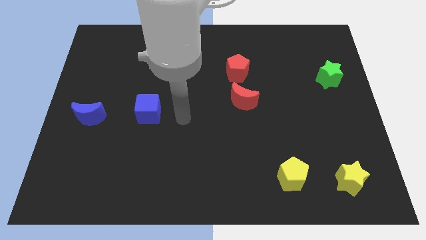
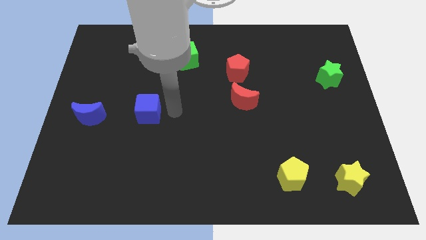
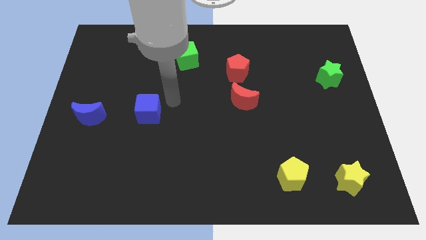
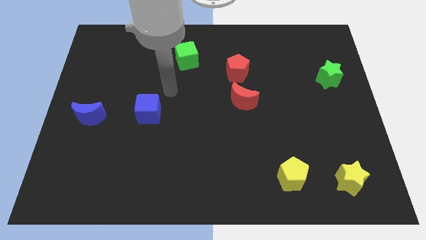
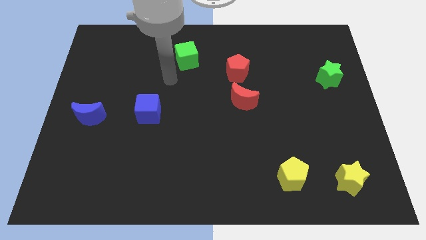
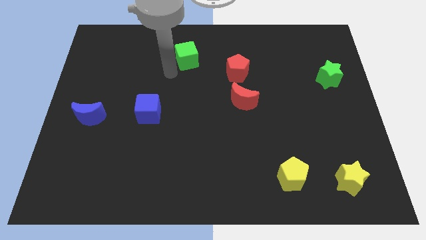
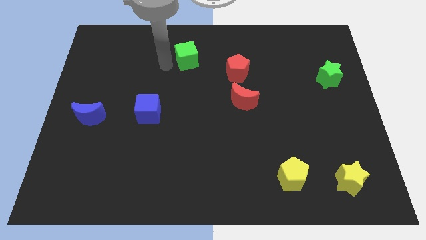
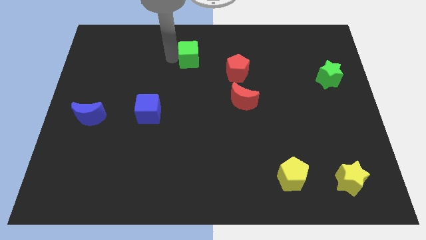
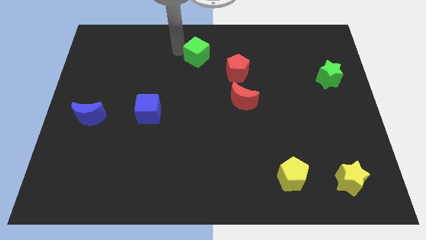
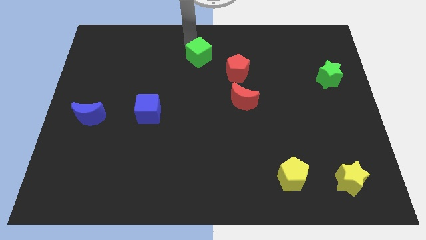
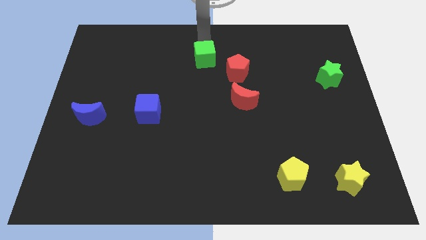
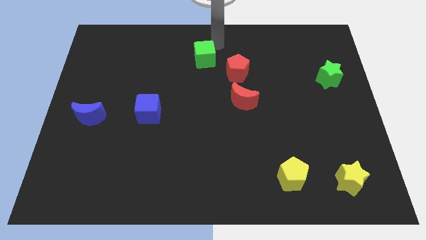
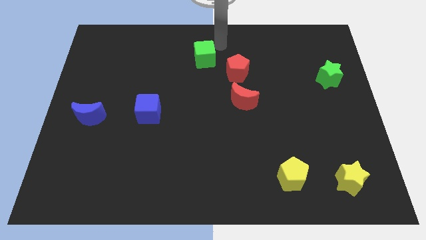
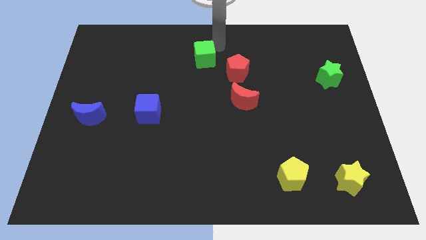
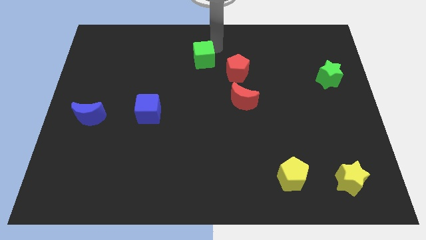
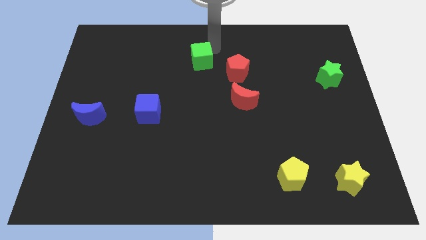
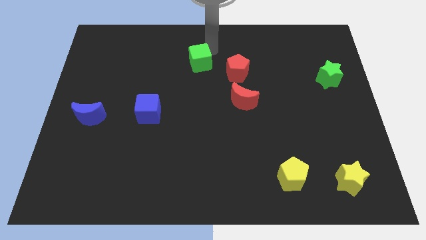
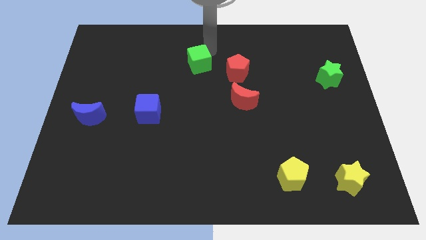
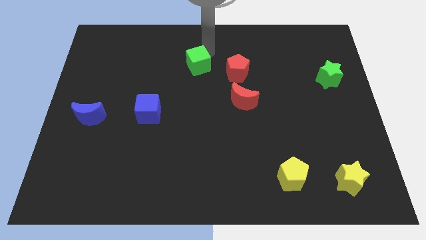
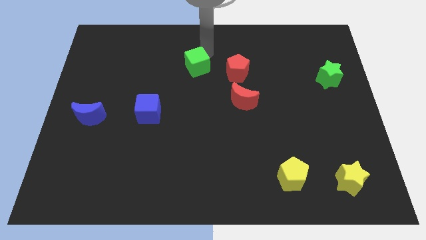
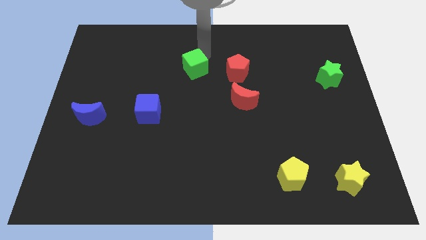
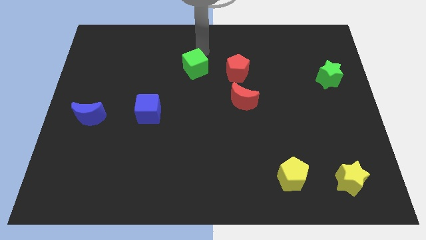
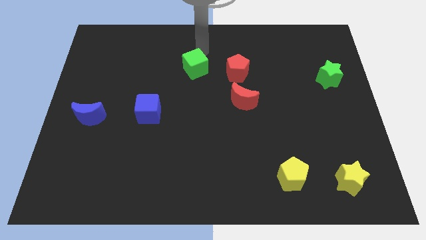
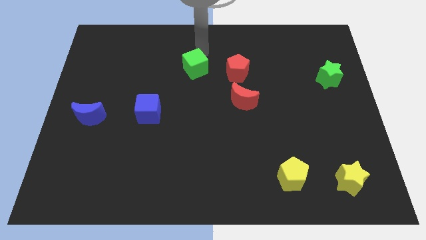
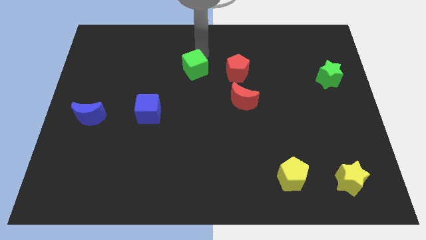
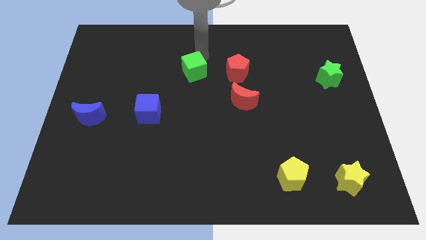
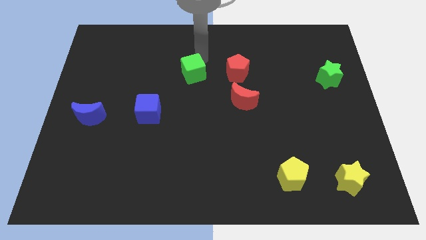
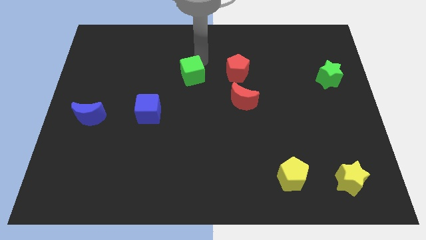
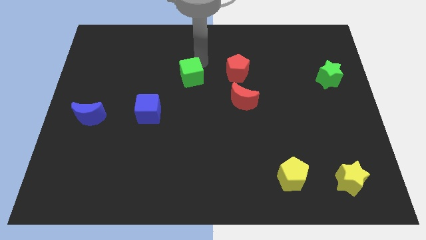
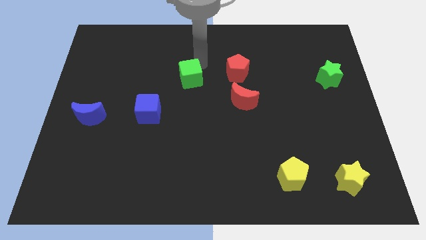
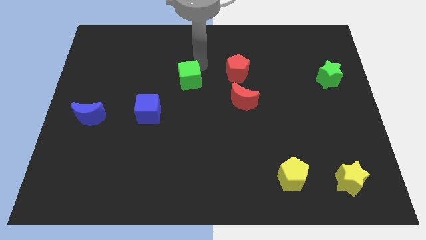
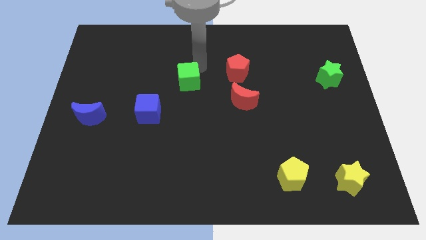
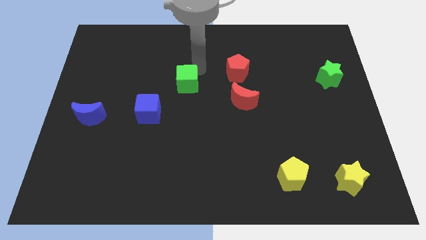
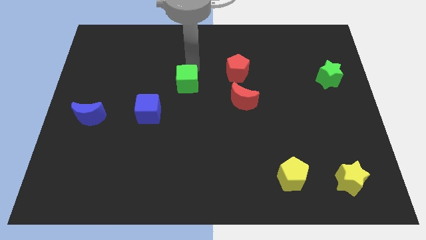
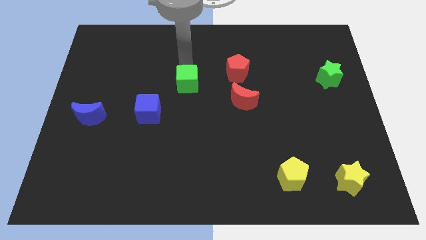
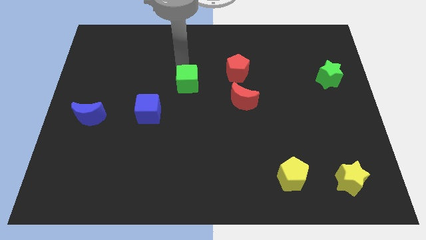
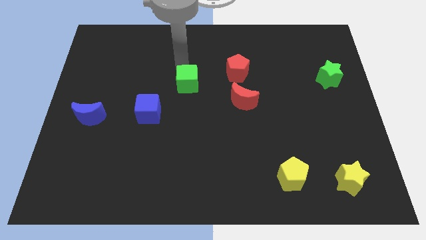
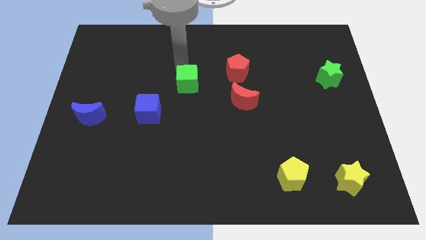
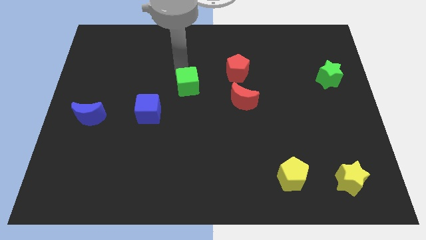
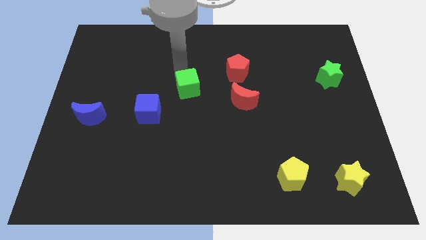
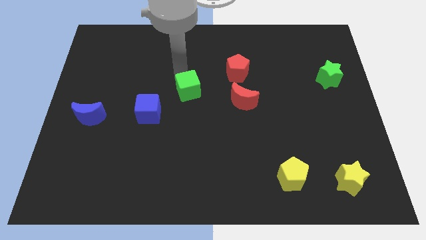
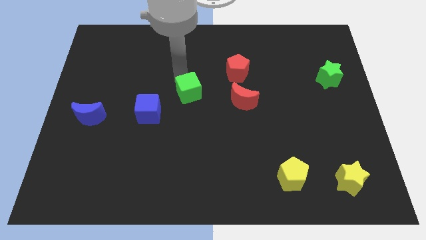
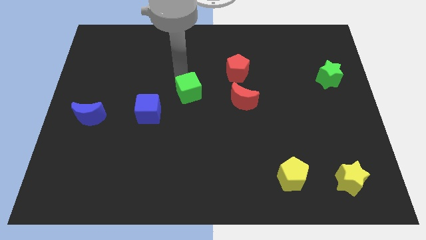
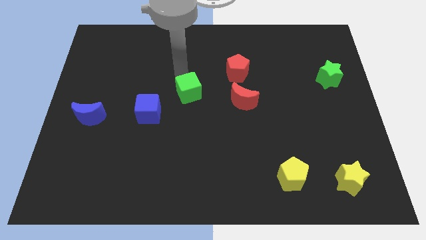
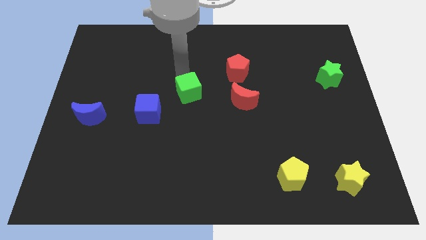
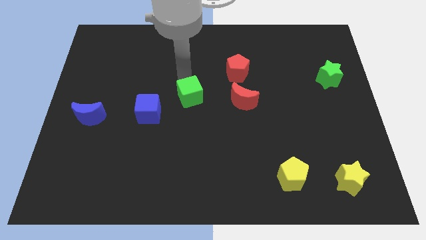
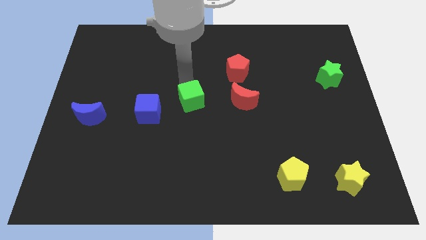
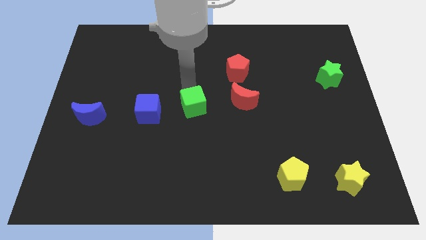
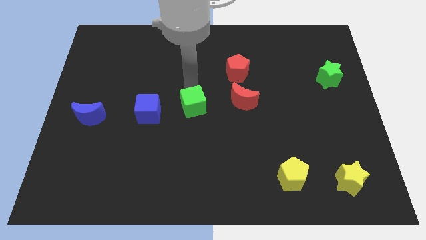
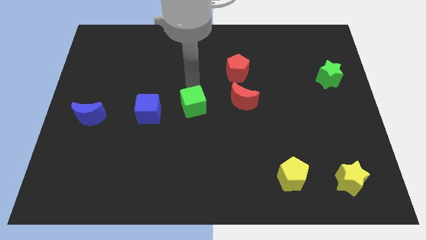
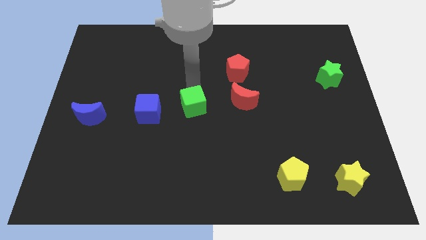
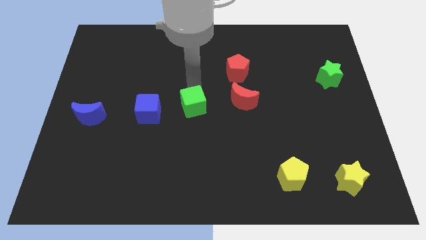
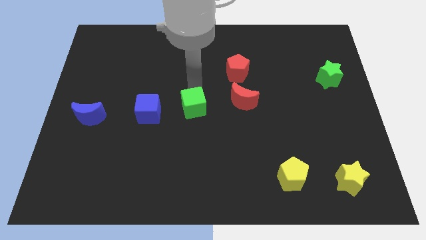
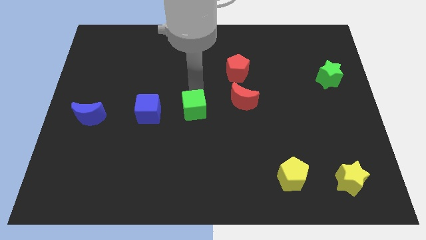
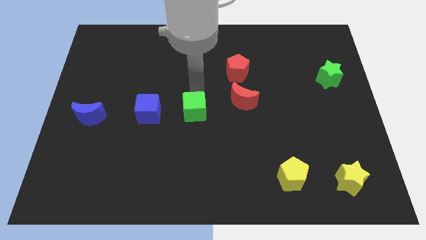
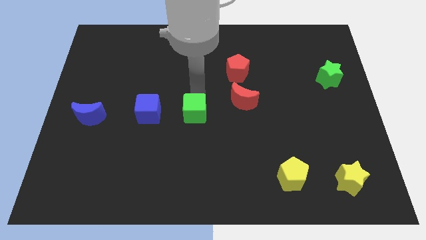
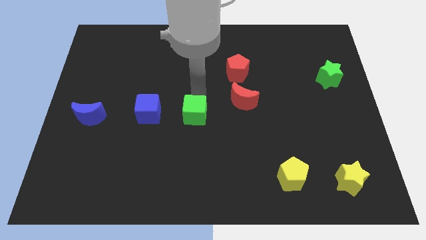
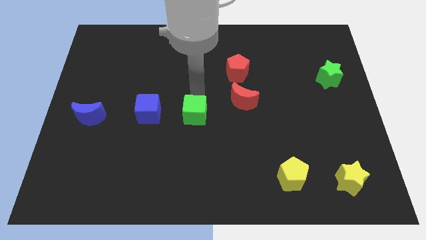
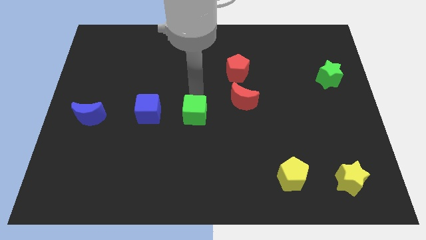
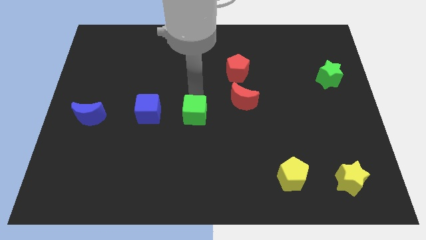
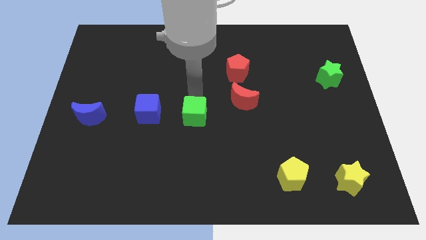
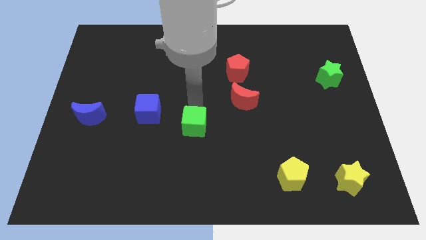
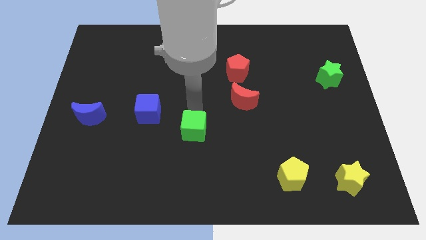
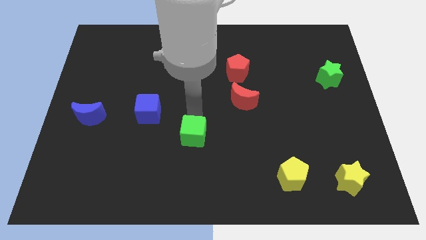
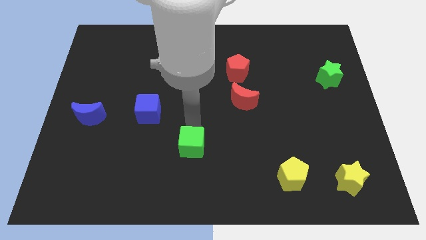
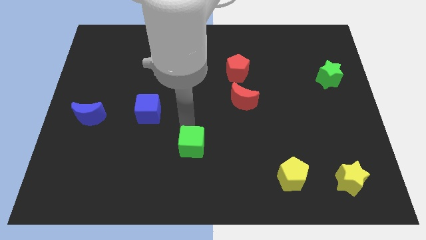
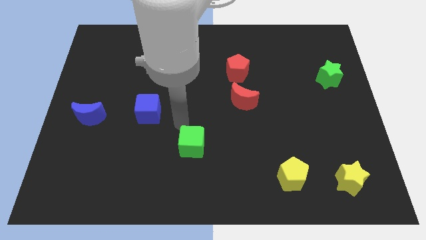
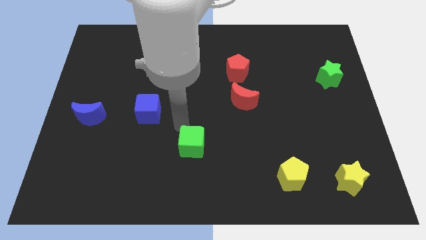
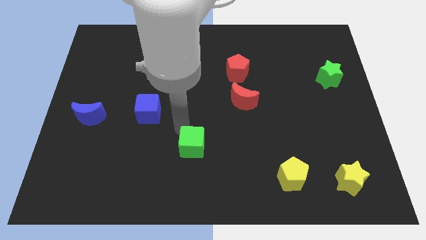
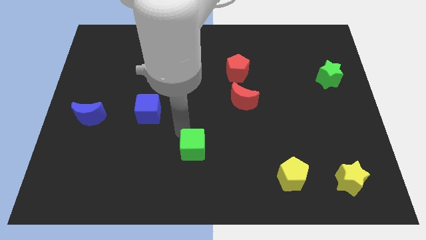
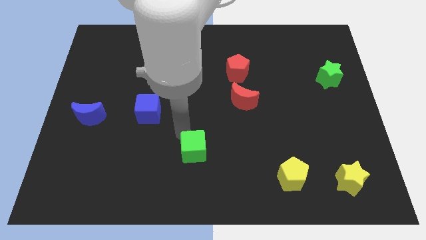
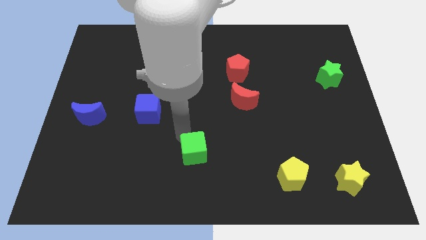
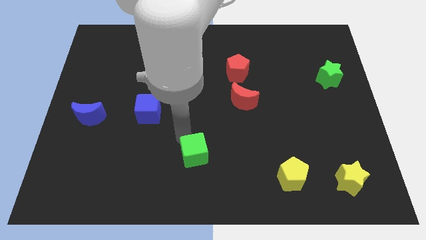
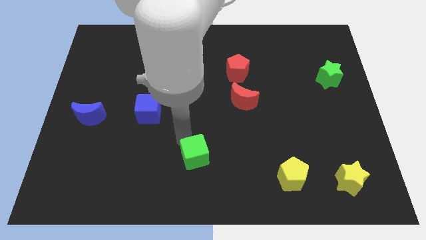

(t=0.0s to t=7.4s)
put the green cube to the bottom side
